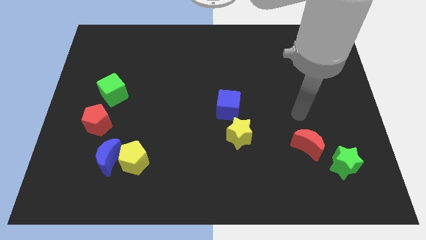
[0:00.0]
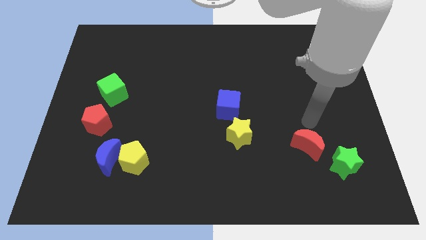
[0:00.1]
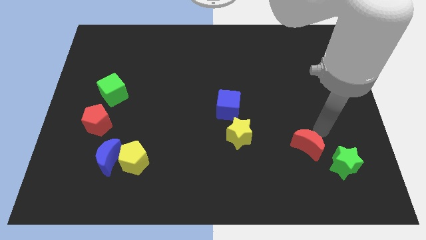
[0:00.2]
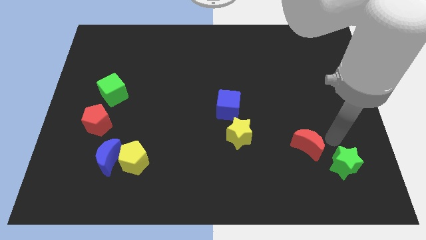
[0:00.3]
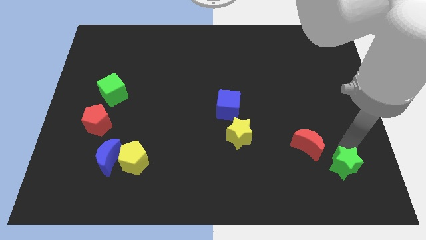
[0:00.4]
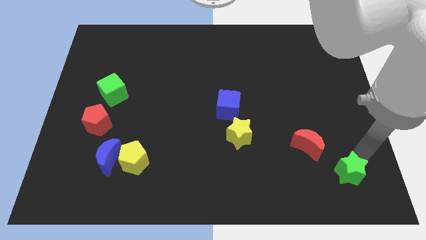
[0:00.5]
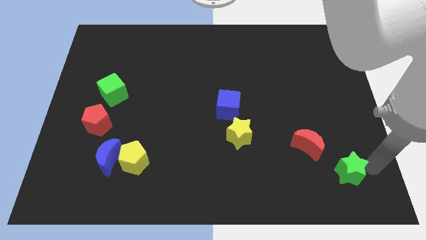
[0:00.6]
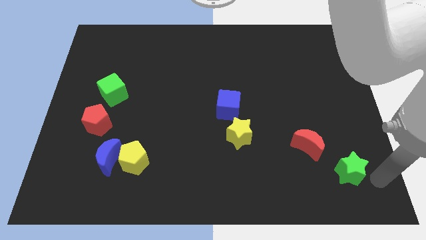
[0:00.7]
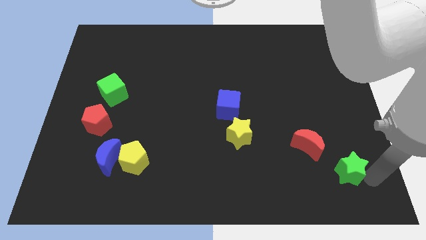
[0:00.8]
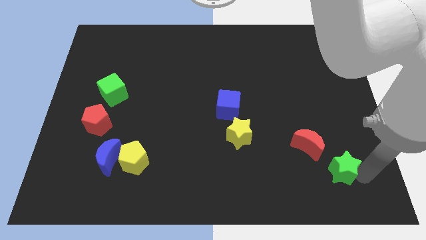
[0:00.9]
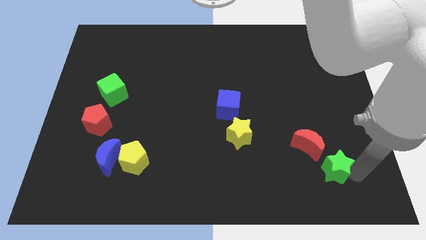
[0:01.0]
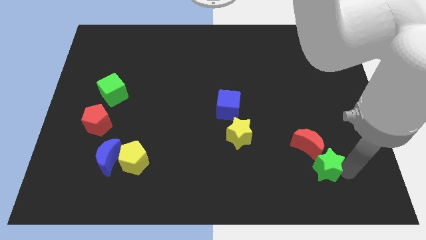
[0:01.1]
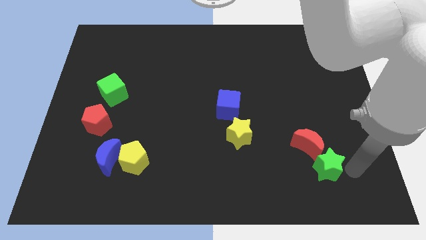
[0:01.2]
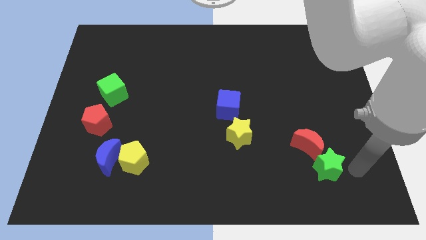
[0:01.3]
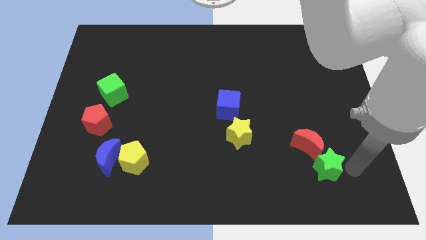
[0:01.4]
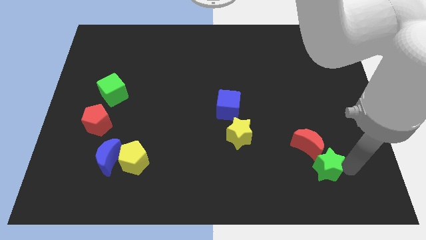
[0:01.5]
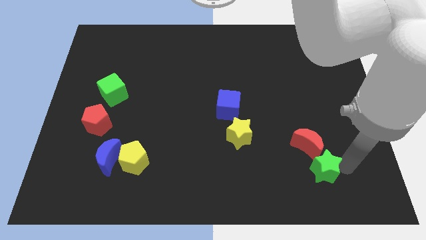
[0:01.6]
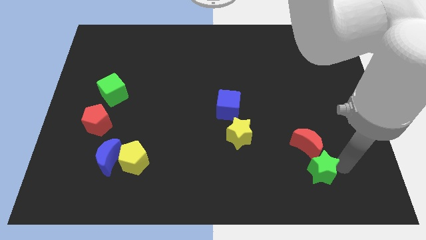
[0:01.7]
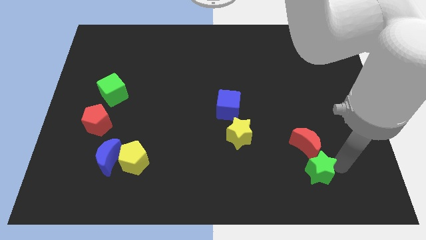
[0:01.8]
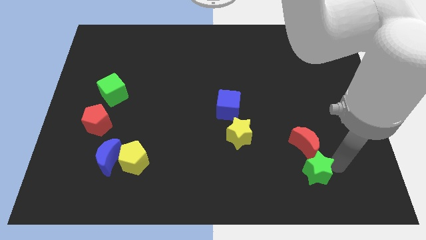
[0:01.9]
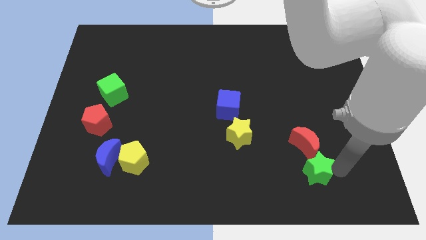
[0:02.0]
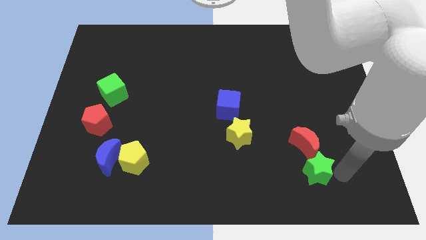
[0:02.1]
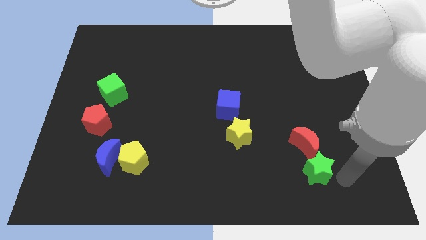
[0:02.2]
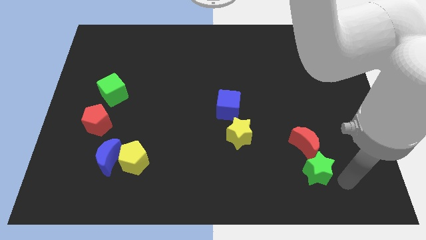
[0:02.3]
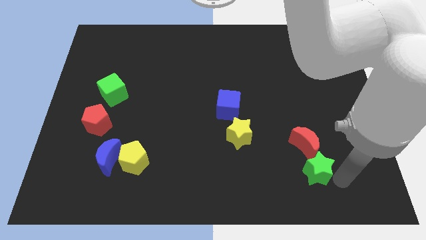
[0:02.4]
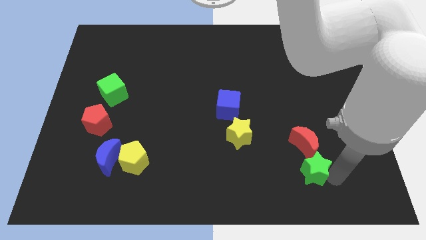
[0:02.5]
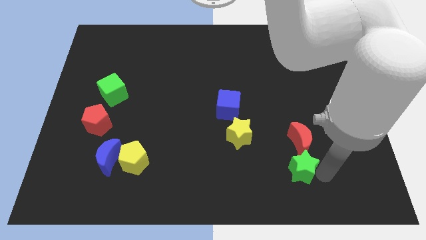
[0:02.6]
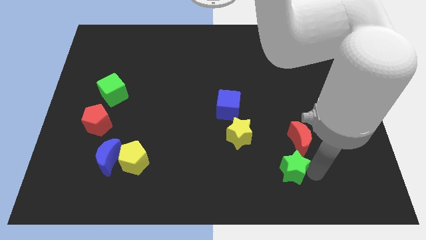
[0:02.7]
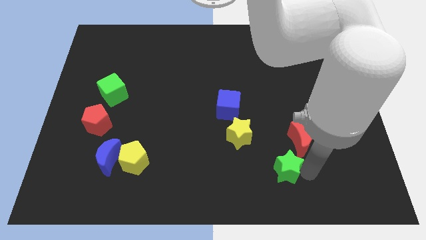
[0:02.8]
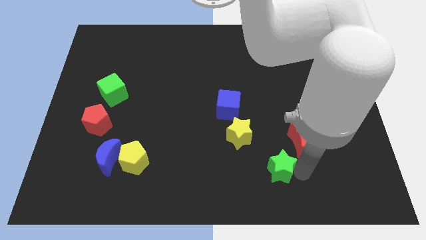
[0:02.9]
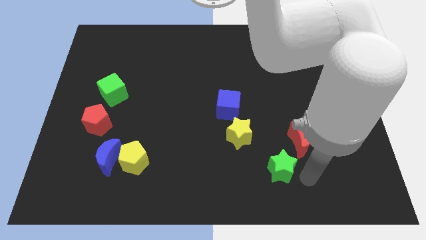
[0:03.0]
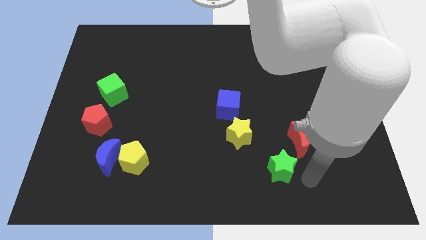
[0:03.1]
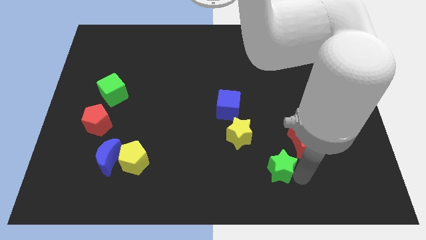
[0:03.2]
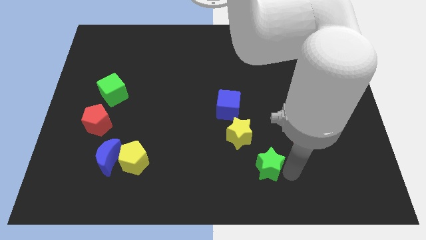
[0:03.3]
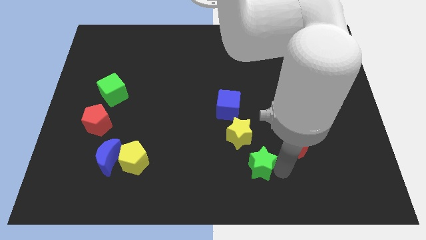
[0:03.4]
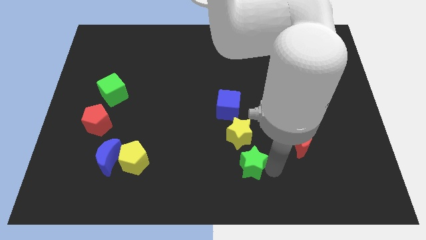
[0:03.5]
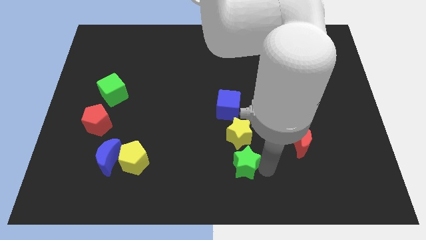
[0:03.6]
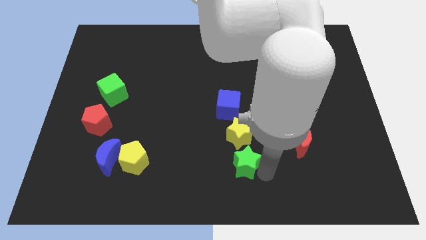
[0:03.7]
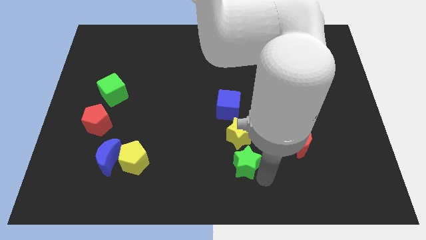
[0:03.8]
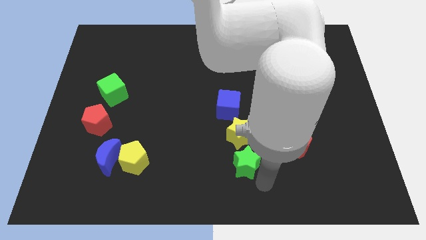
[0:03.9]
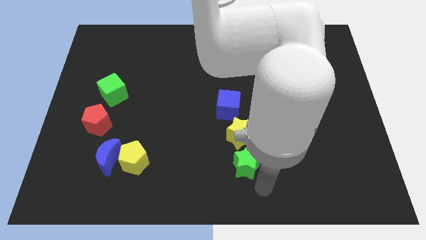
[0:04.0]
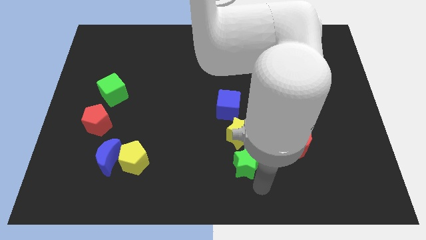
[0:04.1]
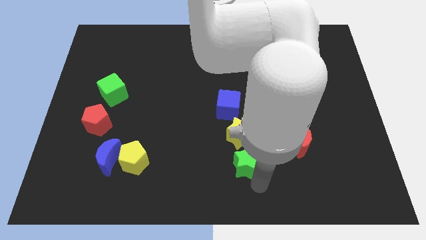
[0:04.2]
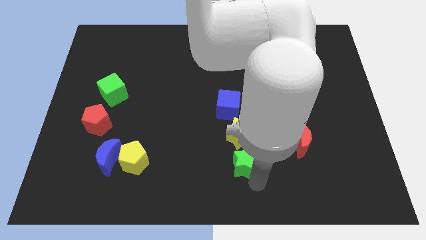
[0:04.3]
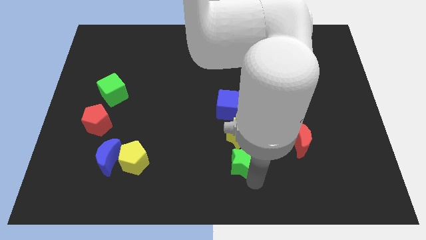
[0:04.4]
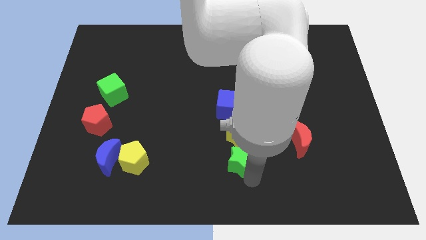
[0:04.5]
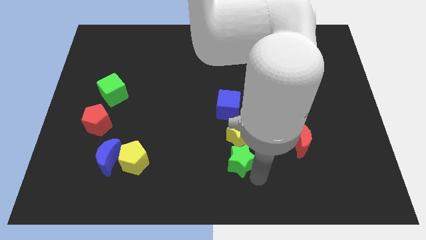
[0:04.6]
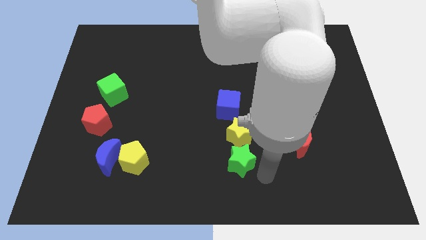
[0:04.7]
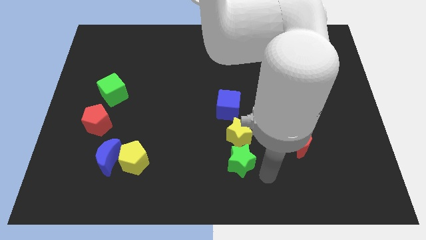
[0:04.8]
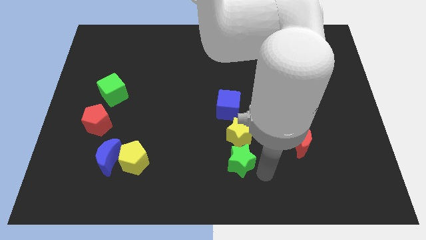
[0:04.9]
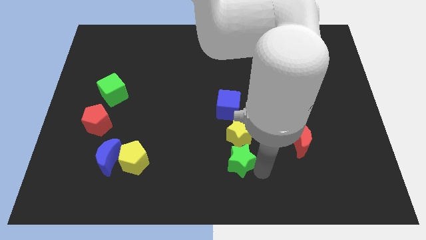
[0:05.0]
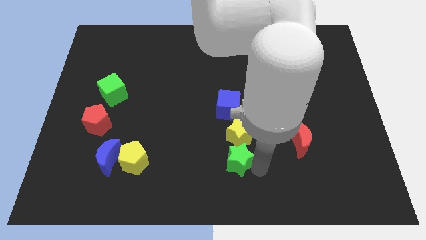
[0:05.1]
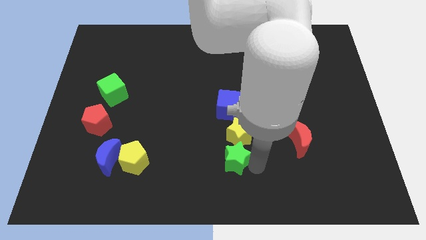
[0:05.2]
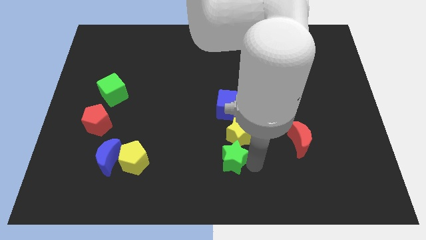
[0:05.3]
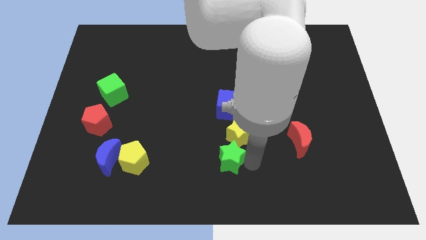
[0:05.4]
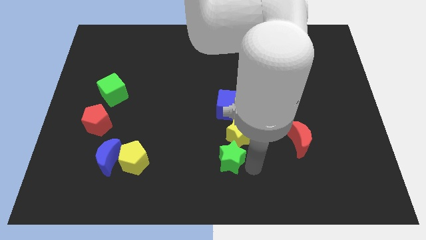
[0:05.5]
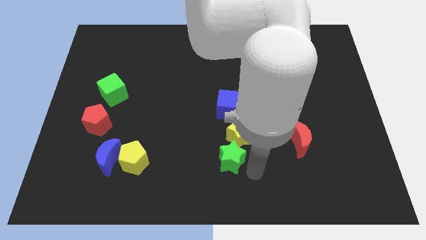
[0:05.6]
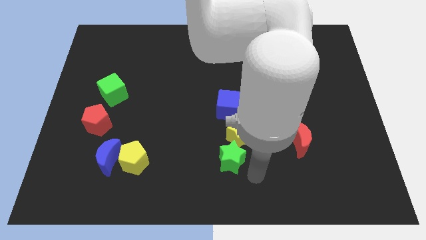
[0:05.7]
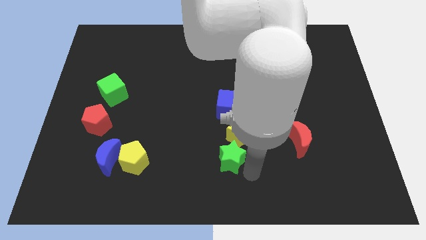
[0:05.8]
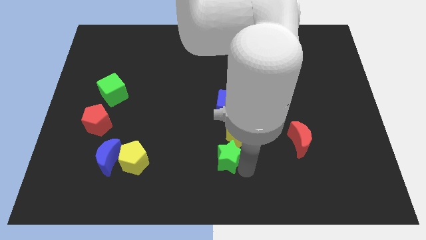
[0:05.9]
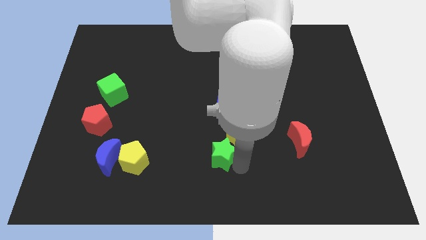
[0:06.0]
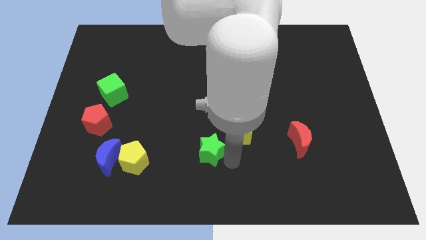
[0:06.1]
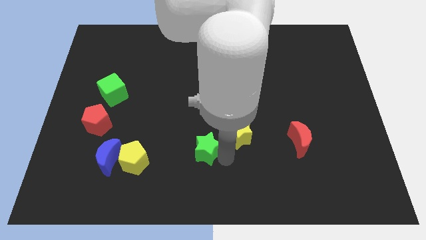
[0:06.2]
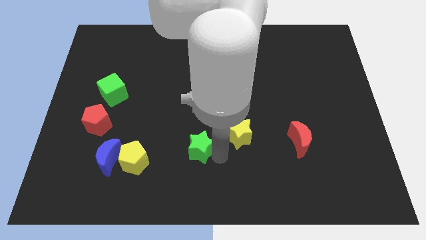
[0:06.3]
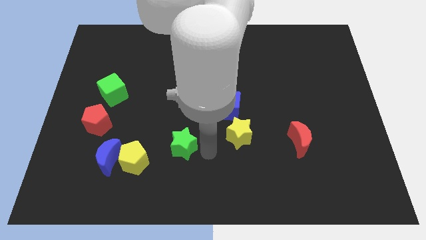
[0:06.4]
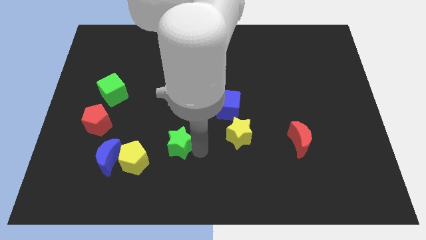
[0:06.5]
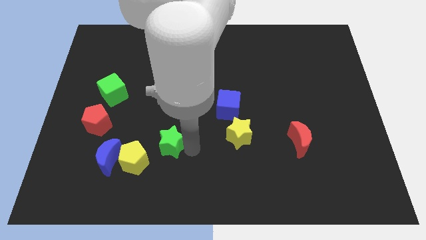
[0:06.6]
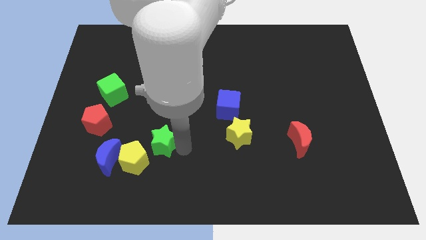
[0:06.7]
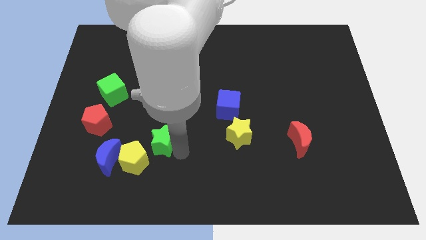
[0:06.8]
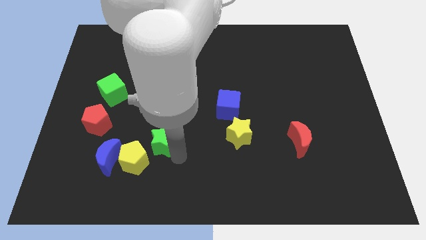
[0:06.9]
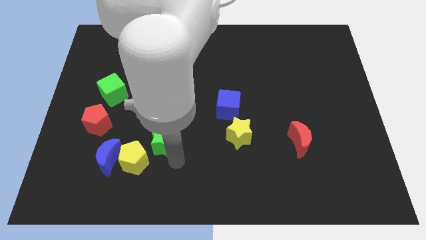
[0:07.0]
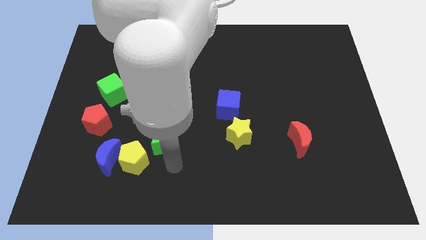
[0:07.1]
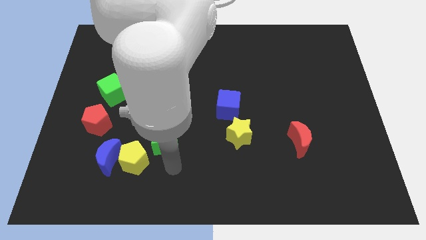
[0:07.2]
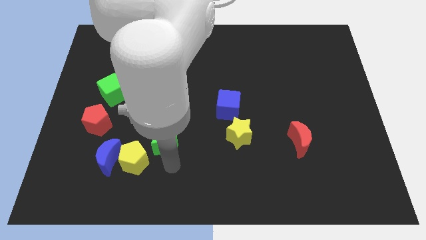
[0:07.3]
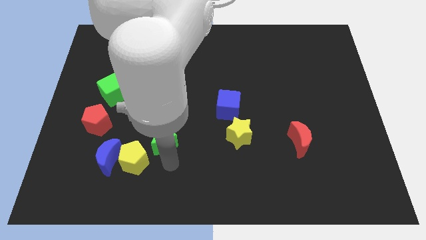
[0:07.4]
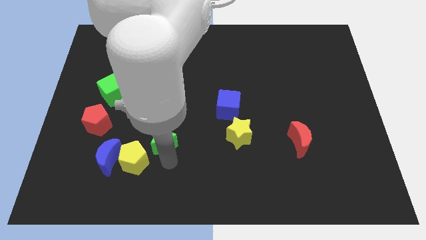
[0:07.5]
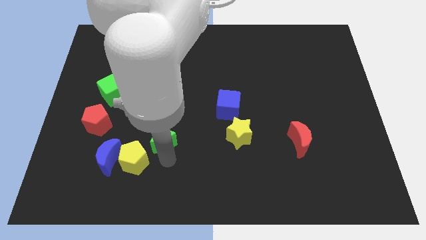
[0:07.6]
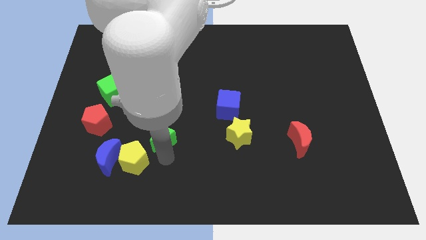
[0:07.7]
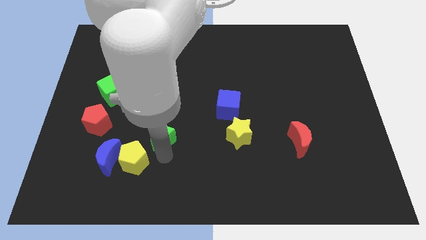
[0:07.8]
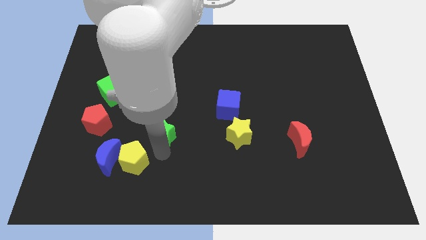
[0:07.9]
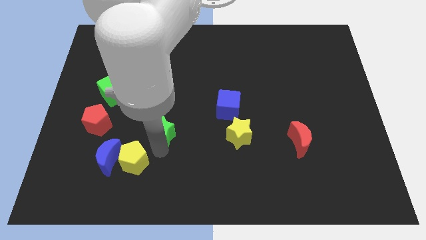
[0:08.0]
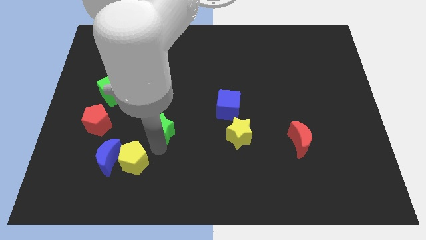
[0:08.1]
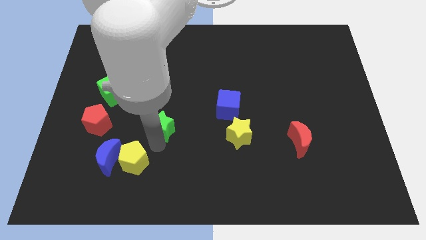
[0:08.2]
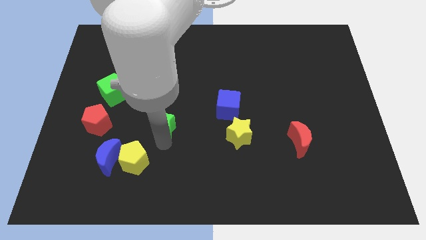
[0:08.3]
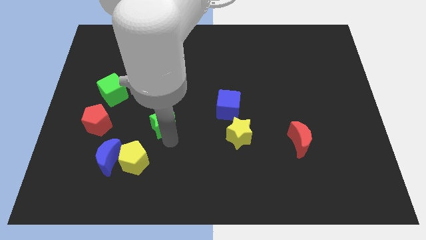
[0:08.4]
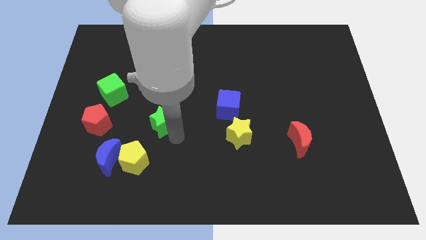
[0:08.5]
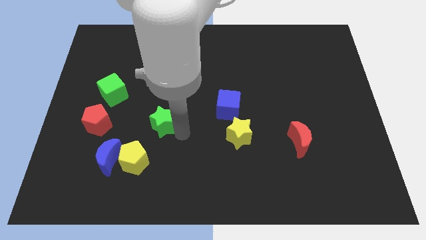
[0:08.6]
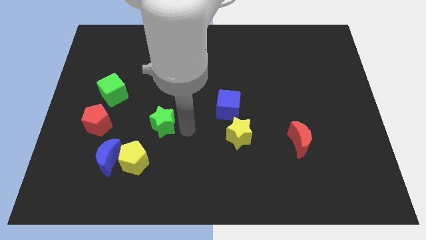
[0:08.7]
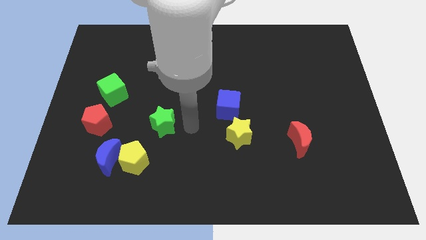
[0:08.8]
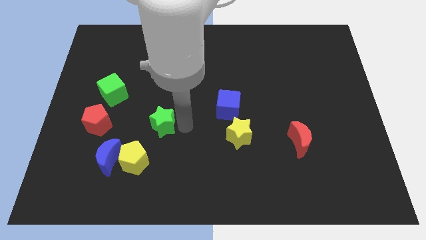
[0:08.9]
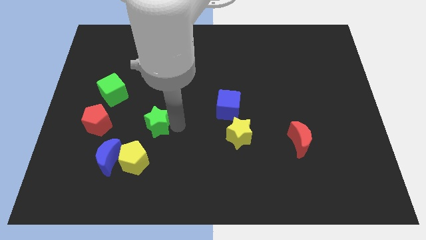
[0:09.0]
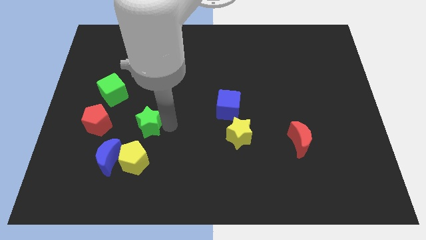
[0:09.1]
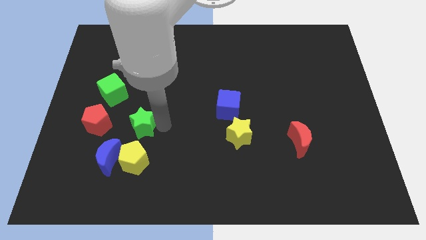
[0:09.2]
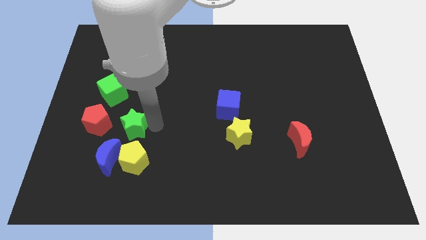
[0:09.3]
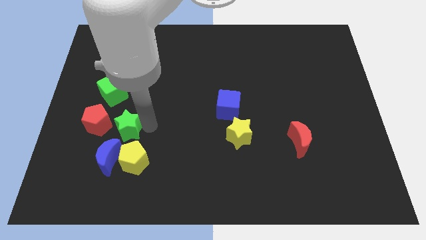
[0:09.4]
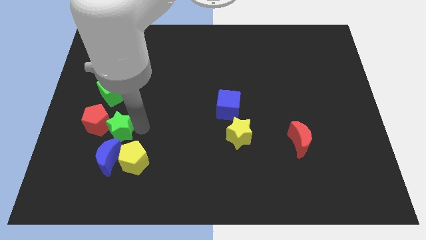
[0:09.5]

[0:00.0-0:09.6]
put the green star next to the red pentagon
